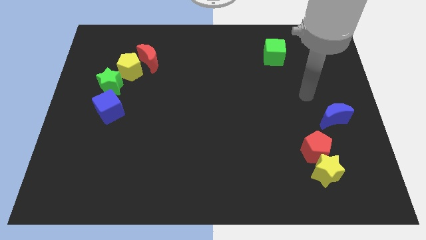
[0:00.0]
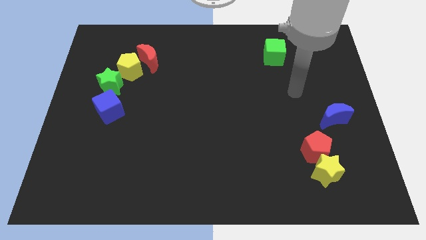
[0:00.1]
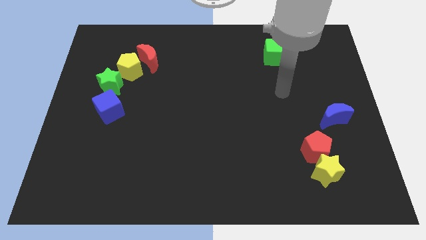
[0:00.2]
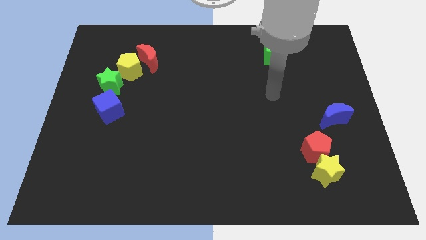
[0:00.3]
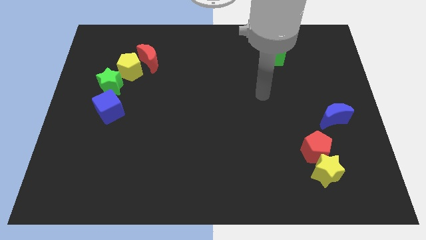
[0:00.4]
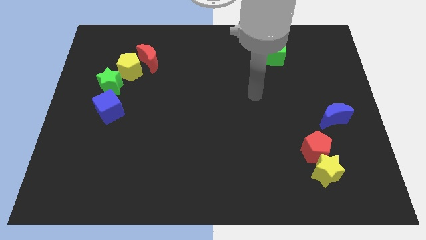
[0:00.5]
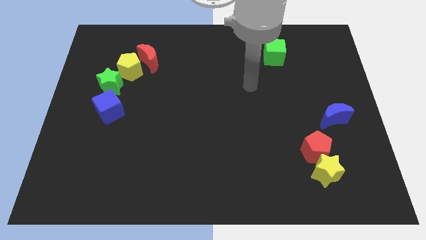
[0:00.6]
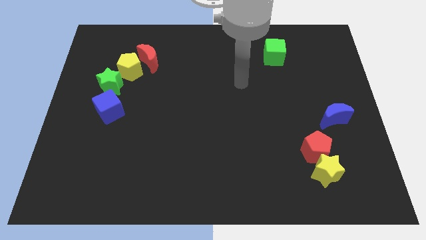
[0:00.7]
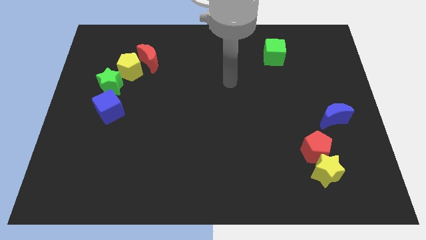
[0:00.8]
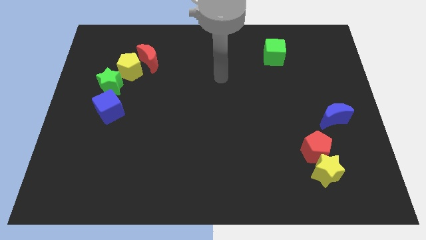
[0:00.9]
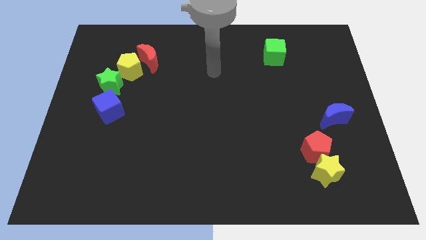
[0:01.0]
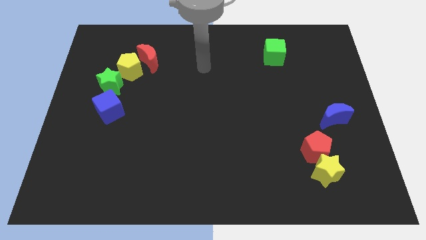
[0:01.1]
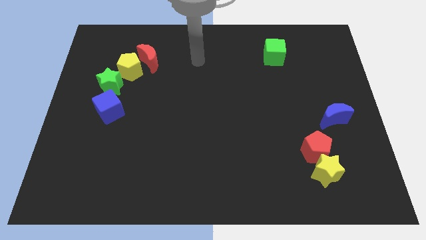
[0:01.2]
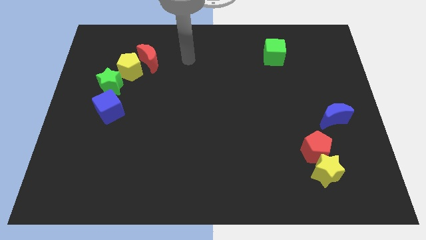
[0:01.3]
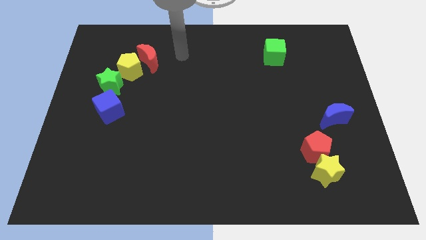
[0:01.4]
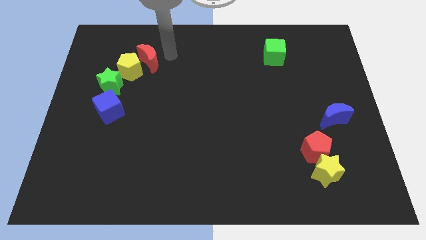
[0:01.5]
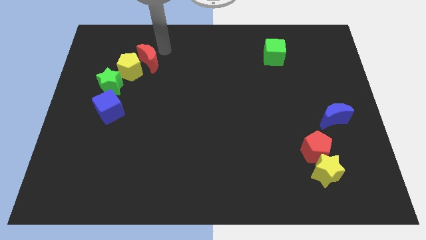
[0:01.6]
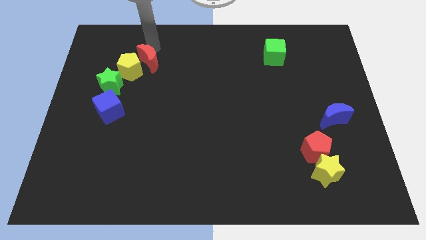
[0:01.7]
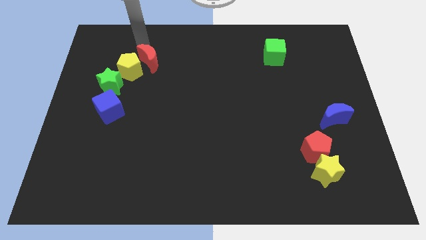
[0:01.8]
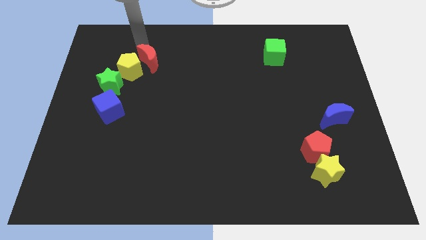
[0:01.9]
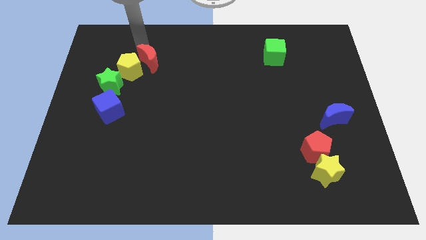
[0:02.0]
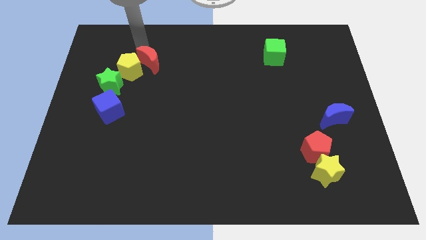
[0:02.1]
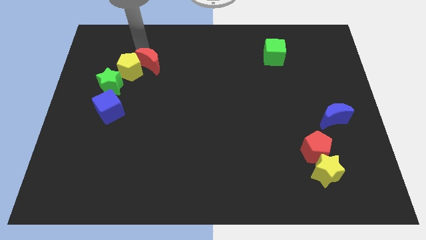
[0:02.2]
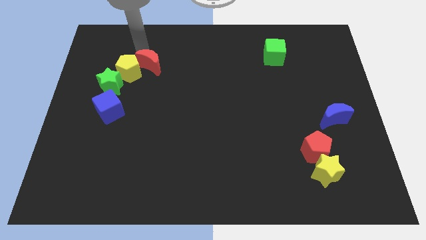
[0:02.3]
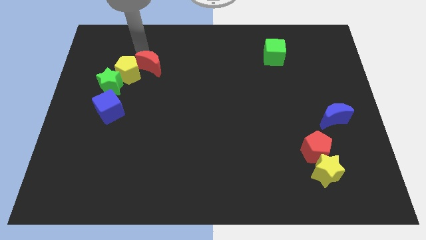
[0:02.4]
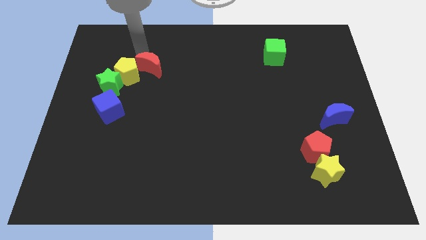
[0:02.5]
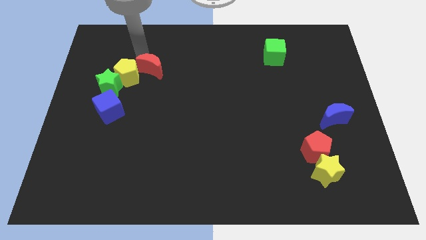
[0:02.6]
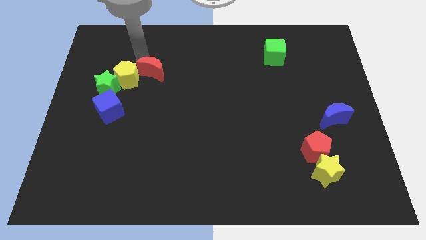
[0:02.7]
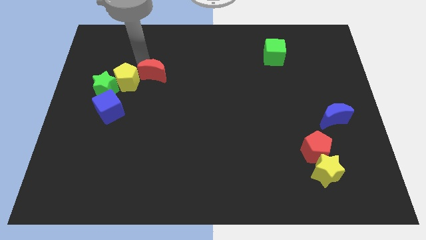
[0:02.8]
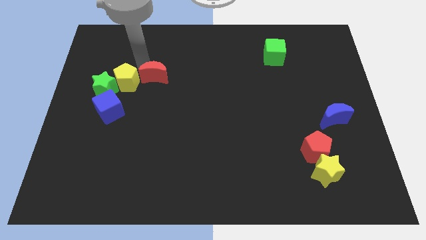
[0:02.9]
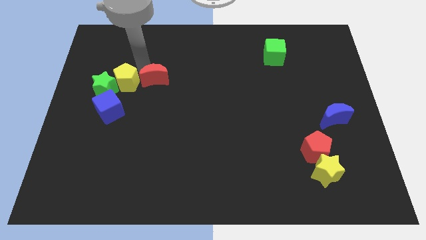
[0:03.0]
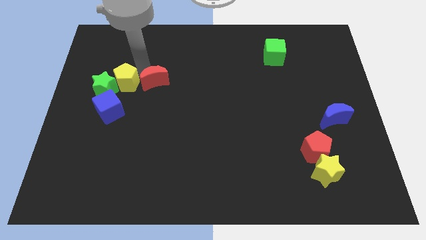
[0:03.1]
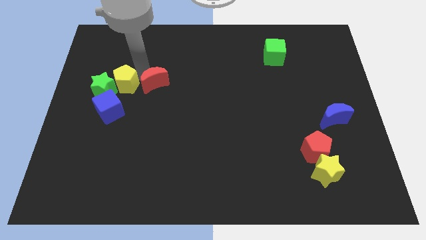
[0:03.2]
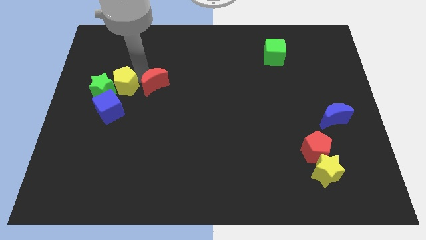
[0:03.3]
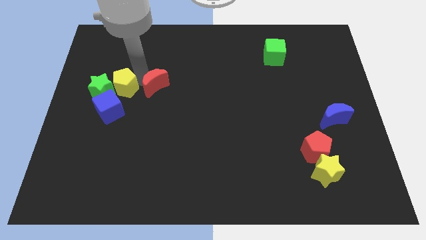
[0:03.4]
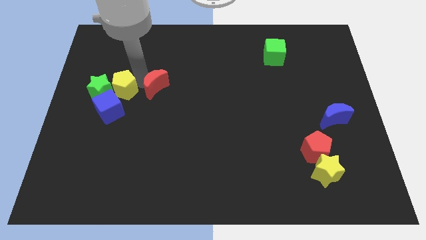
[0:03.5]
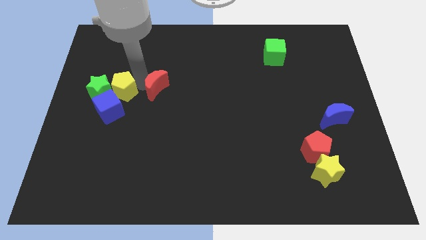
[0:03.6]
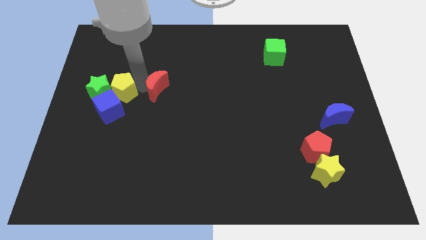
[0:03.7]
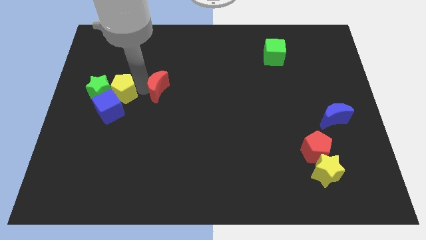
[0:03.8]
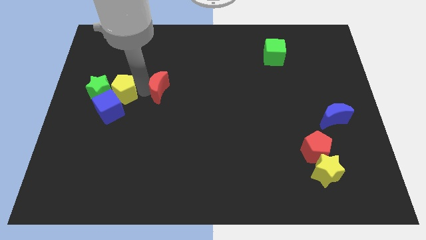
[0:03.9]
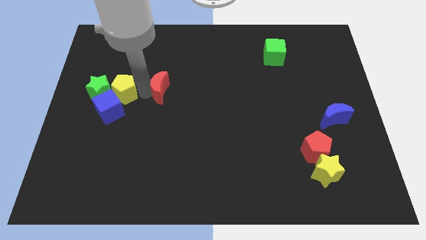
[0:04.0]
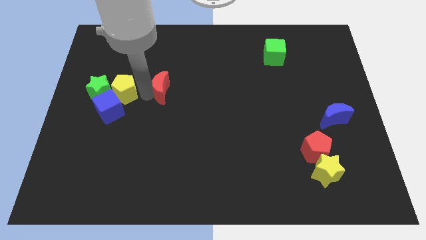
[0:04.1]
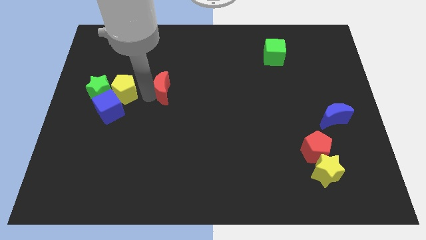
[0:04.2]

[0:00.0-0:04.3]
put the red moon to the middle of the board

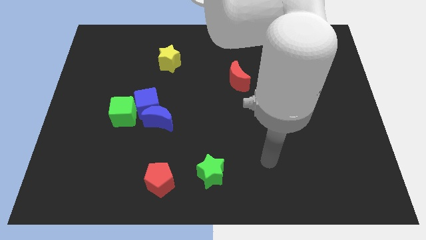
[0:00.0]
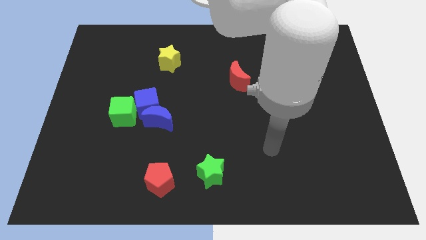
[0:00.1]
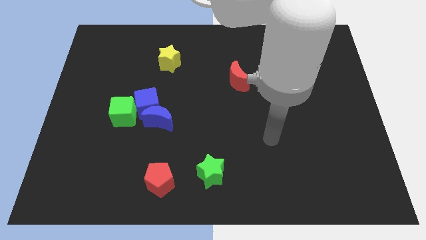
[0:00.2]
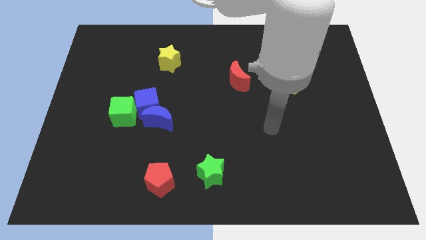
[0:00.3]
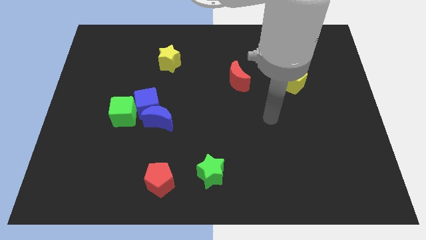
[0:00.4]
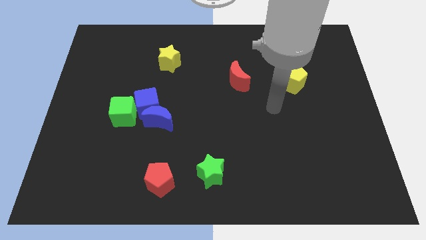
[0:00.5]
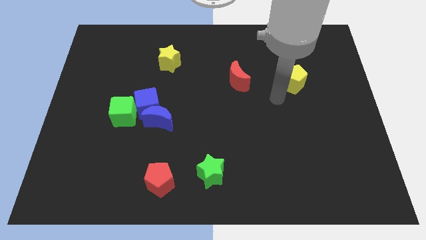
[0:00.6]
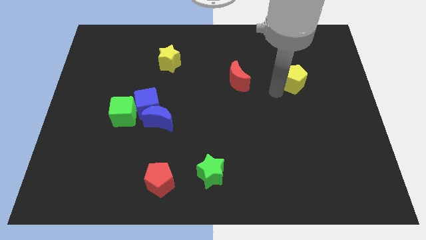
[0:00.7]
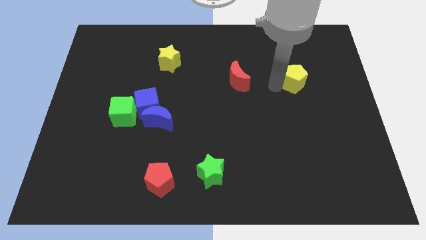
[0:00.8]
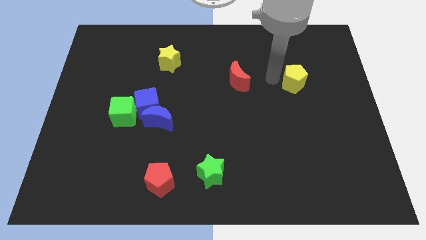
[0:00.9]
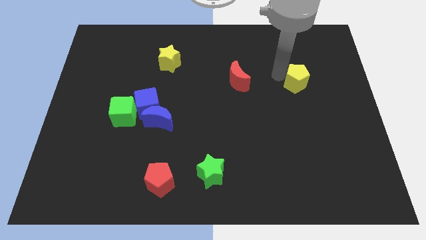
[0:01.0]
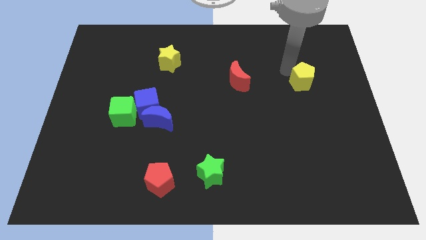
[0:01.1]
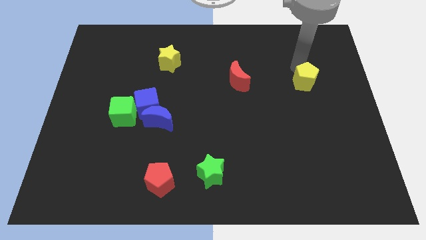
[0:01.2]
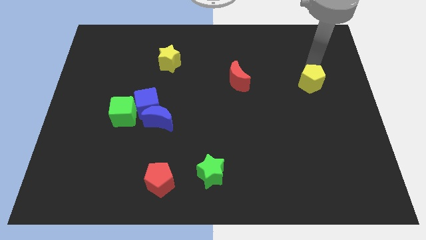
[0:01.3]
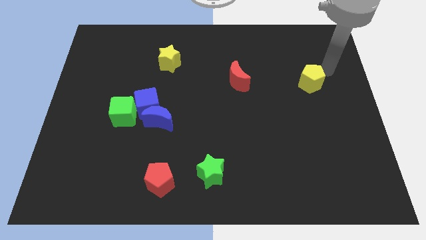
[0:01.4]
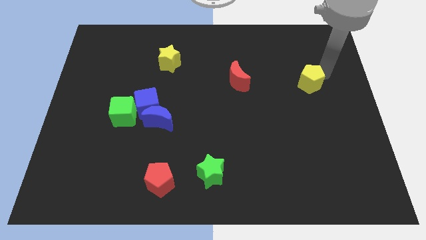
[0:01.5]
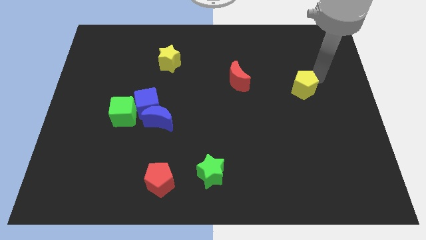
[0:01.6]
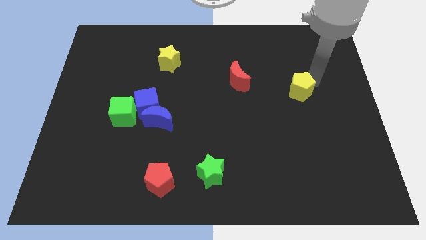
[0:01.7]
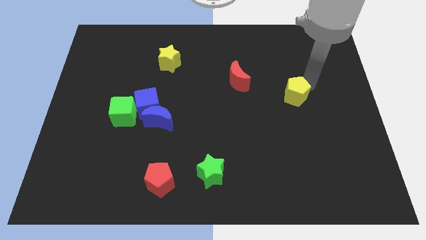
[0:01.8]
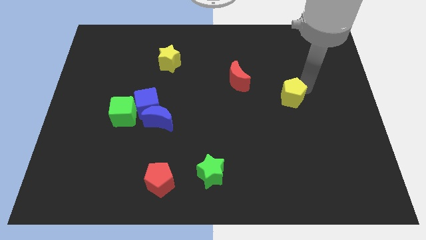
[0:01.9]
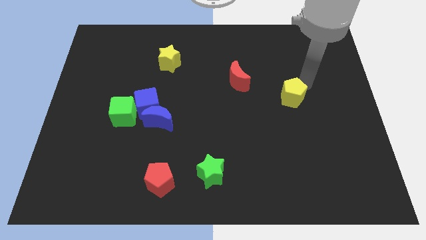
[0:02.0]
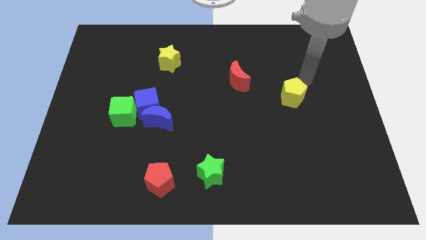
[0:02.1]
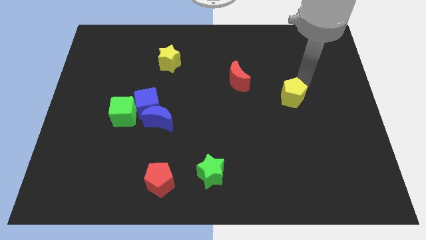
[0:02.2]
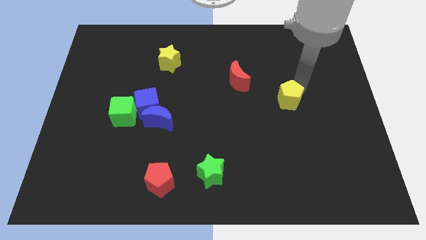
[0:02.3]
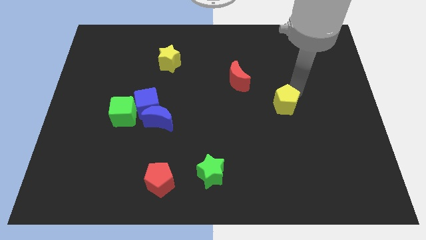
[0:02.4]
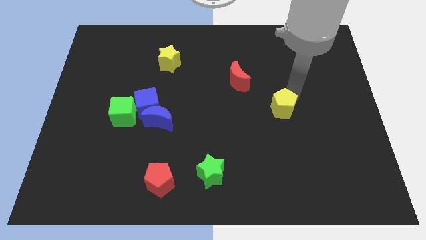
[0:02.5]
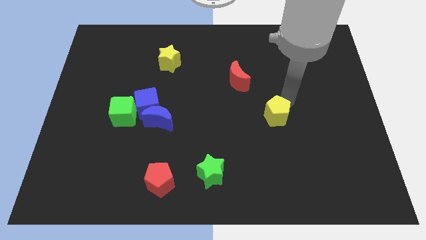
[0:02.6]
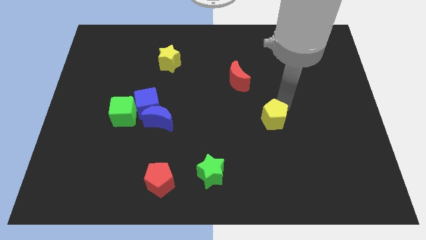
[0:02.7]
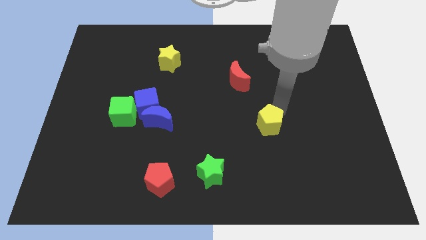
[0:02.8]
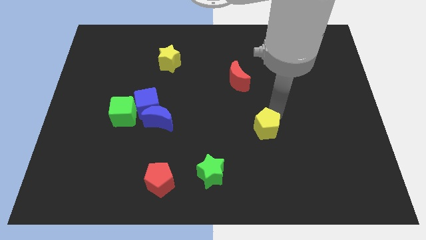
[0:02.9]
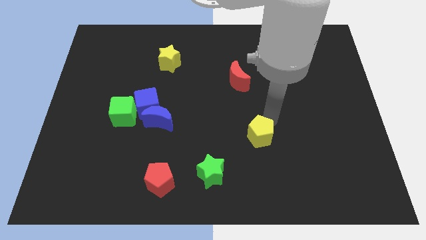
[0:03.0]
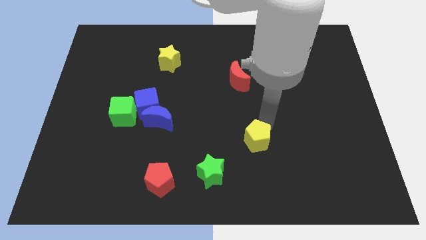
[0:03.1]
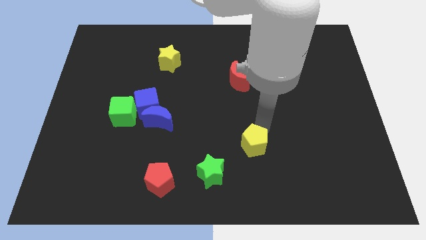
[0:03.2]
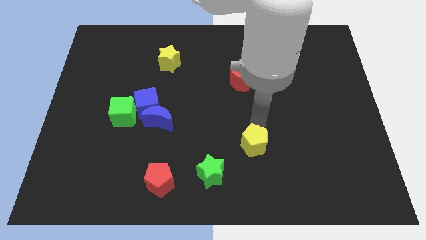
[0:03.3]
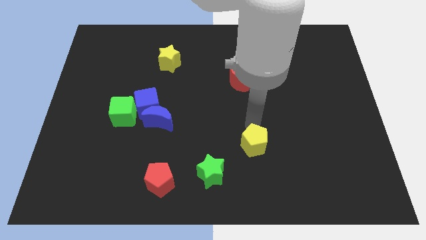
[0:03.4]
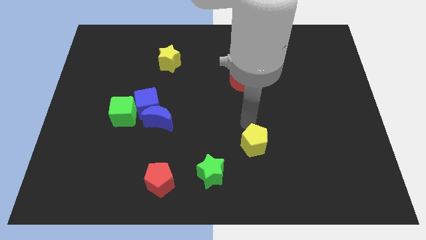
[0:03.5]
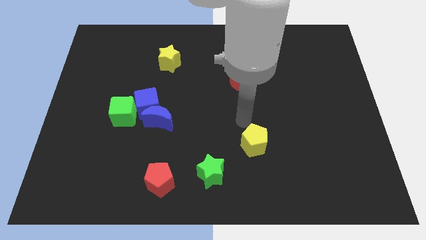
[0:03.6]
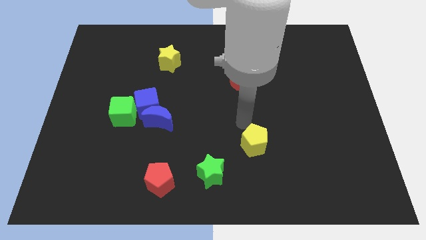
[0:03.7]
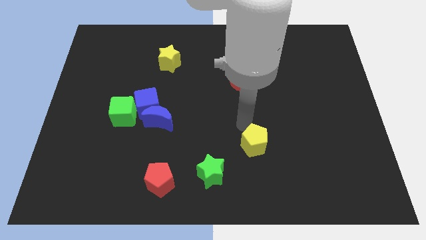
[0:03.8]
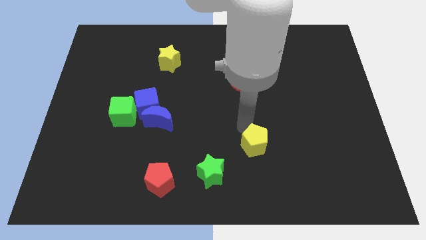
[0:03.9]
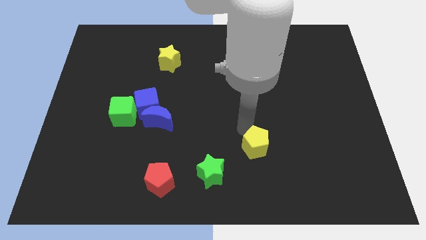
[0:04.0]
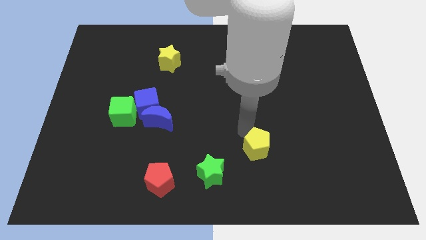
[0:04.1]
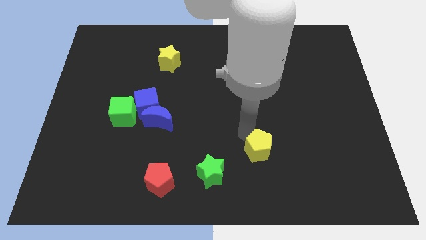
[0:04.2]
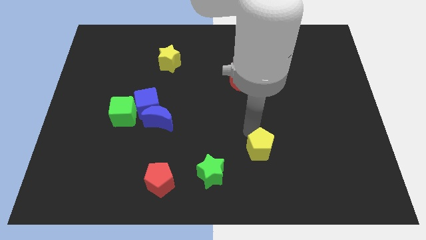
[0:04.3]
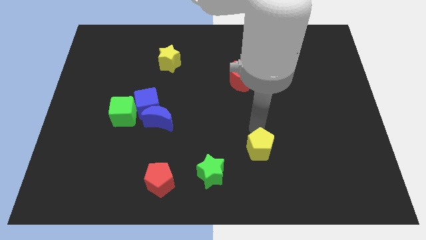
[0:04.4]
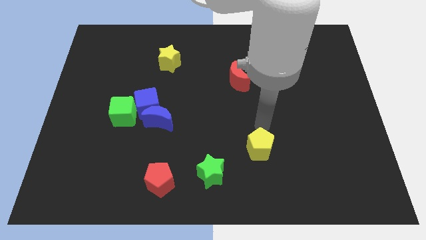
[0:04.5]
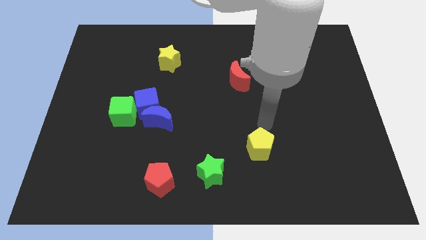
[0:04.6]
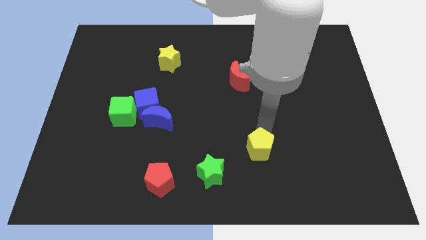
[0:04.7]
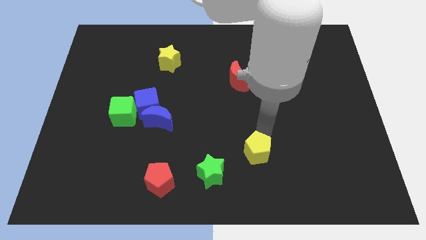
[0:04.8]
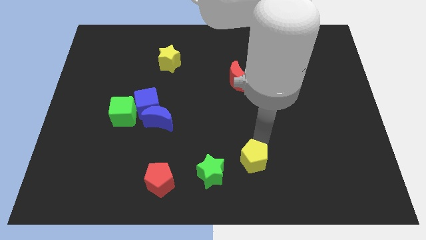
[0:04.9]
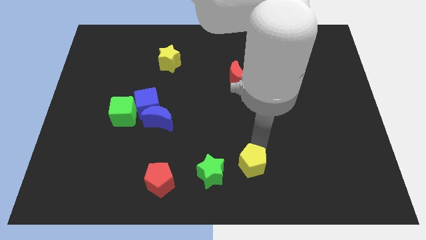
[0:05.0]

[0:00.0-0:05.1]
push the yellow pentagon to the bottom
